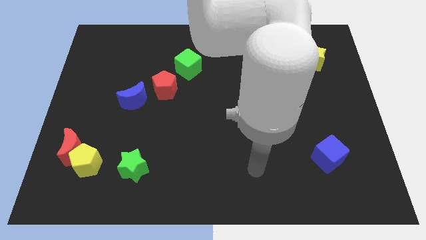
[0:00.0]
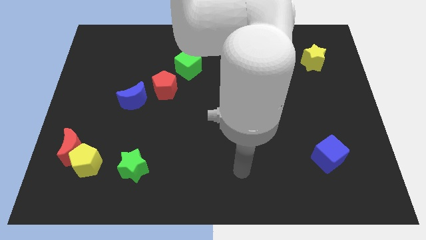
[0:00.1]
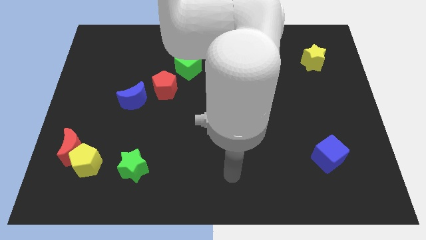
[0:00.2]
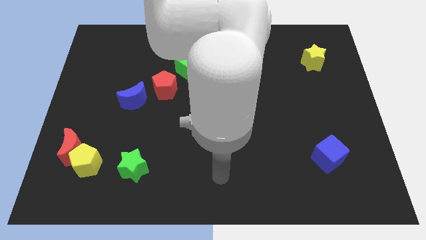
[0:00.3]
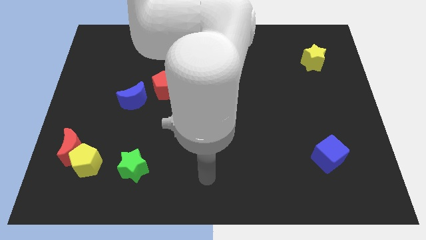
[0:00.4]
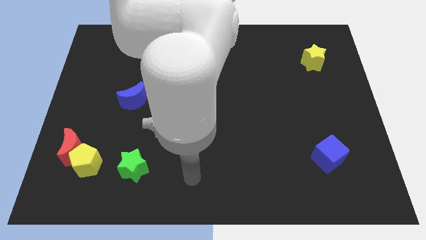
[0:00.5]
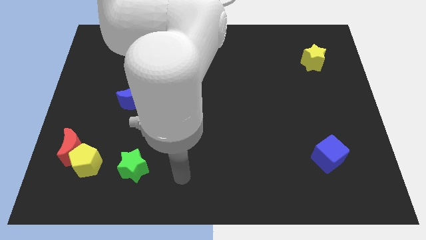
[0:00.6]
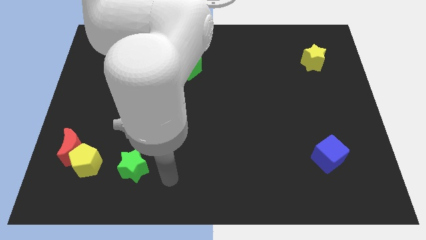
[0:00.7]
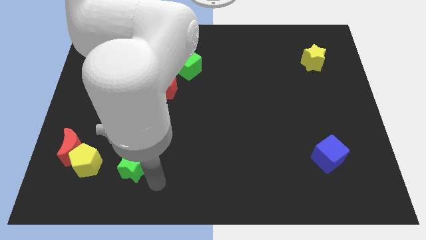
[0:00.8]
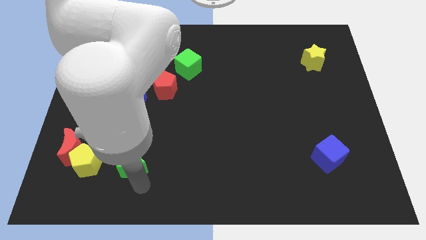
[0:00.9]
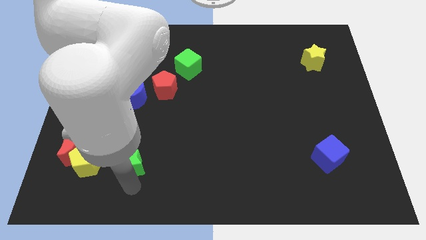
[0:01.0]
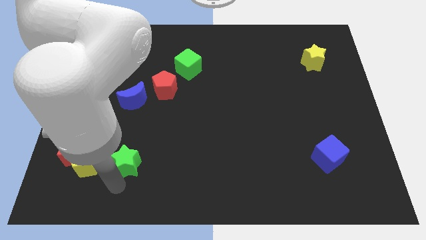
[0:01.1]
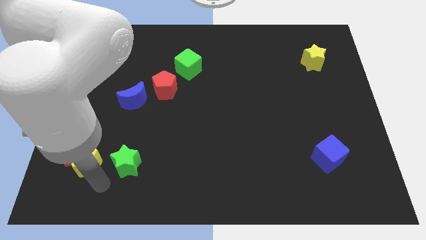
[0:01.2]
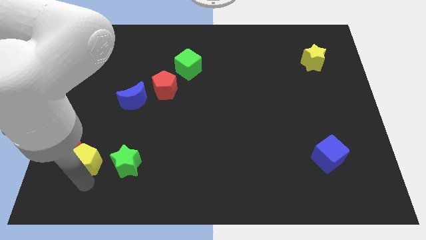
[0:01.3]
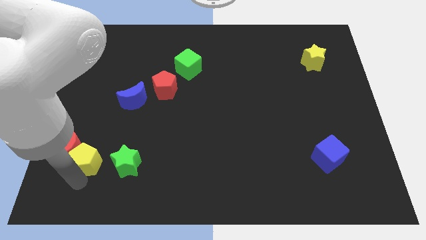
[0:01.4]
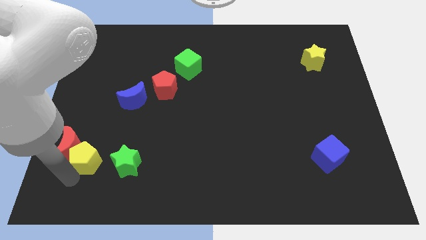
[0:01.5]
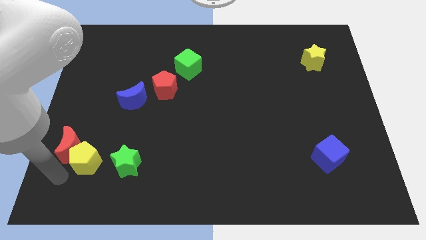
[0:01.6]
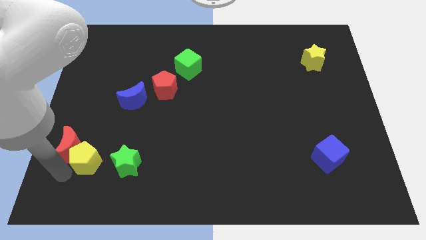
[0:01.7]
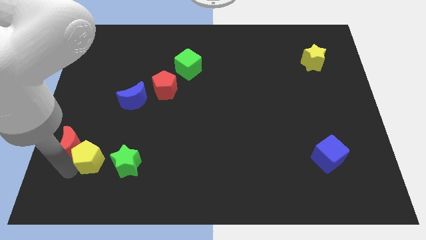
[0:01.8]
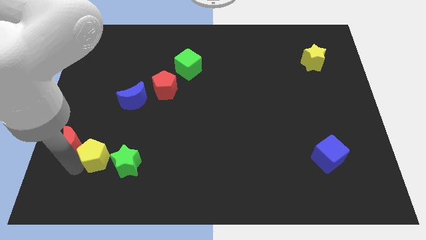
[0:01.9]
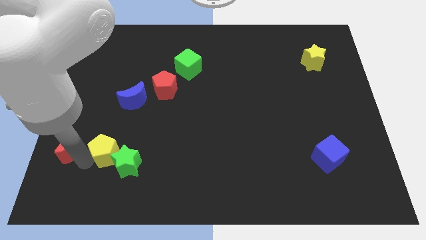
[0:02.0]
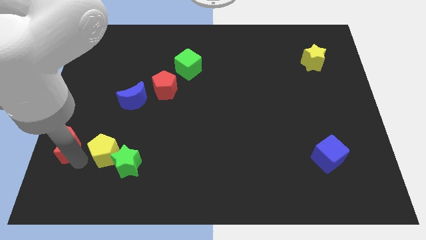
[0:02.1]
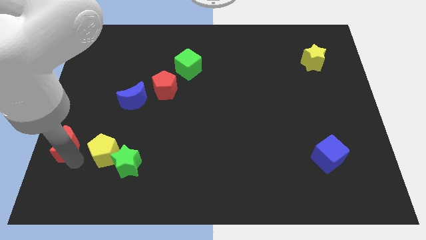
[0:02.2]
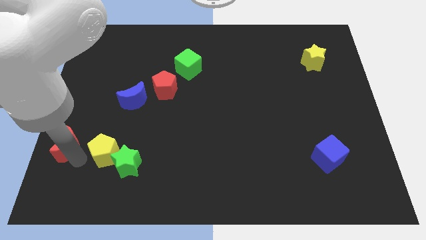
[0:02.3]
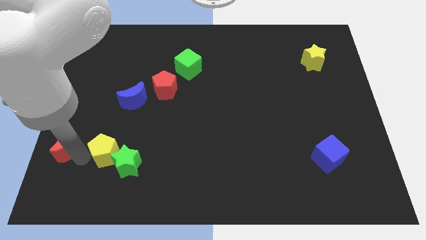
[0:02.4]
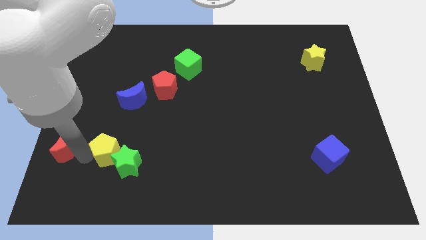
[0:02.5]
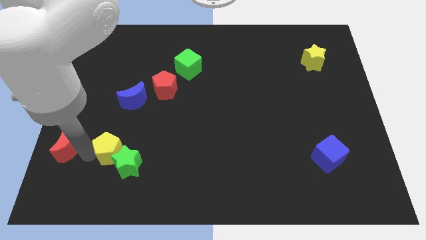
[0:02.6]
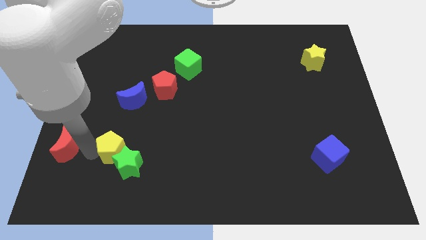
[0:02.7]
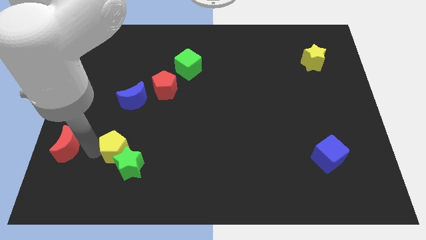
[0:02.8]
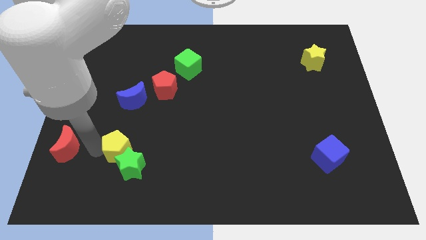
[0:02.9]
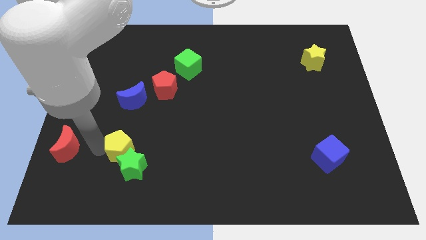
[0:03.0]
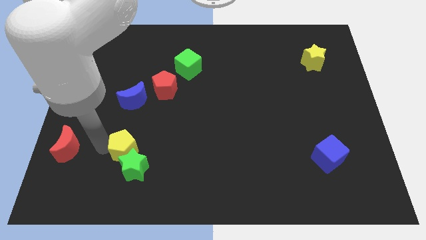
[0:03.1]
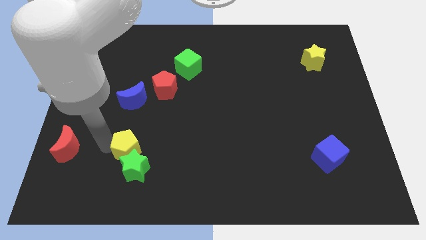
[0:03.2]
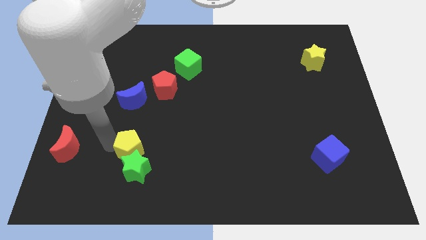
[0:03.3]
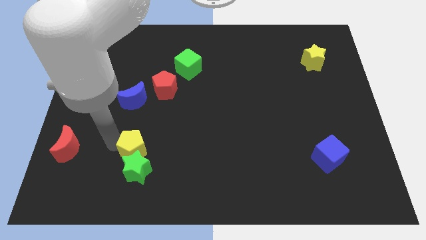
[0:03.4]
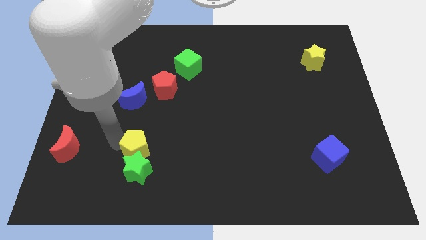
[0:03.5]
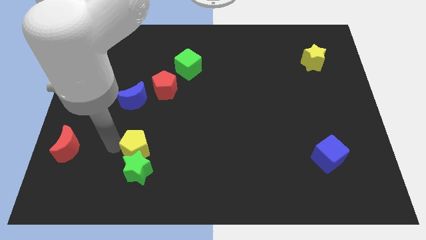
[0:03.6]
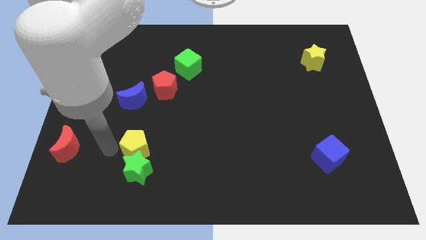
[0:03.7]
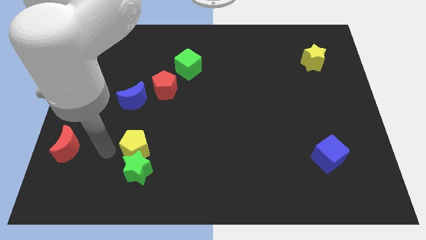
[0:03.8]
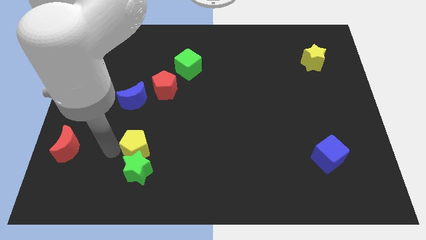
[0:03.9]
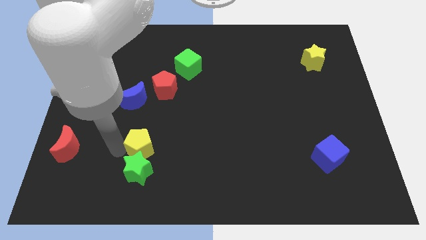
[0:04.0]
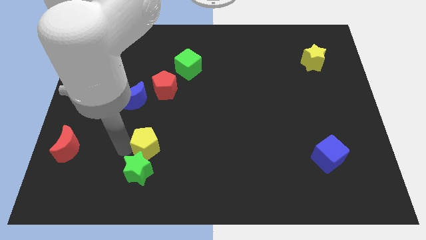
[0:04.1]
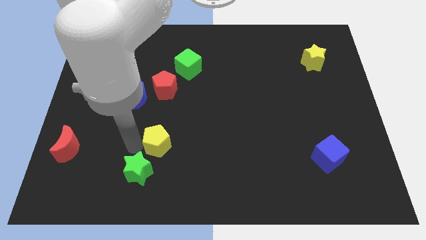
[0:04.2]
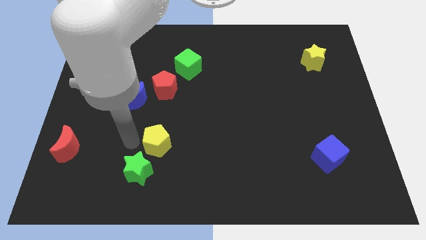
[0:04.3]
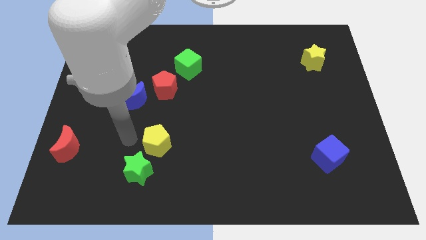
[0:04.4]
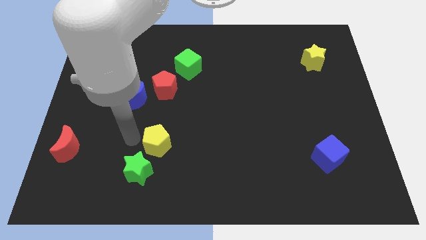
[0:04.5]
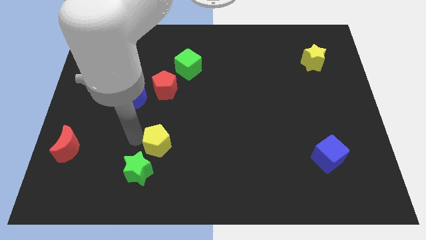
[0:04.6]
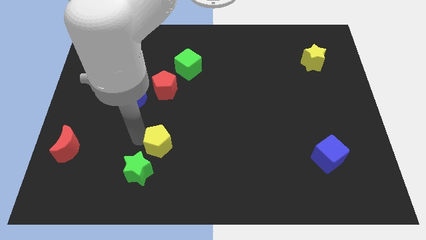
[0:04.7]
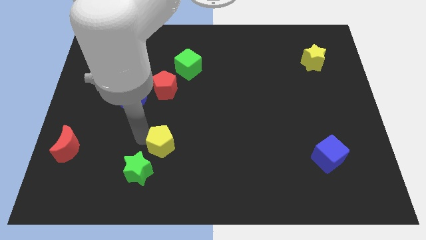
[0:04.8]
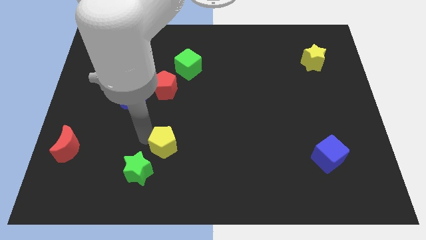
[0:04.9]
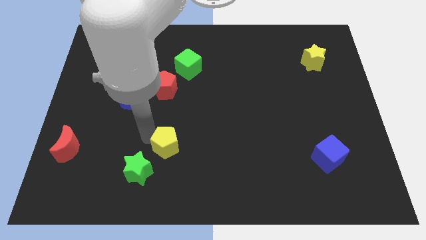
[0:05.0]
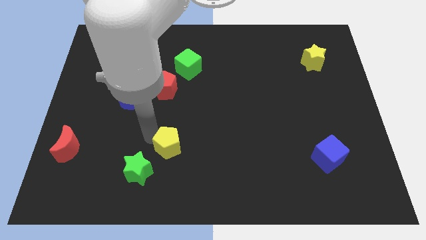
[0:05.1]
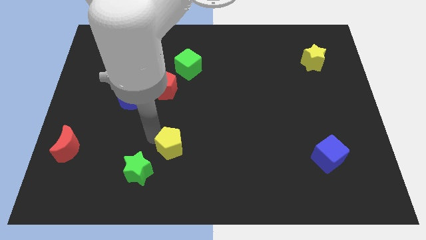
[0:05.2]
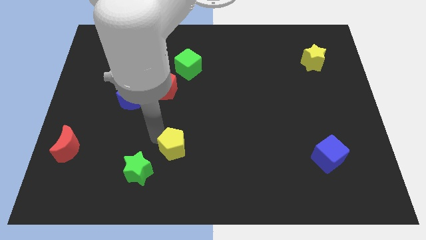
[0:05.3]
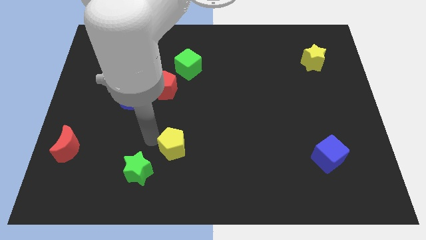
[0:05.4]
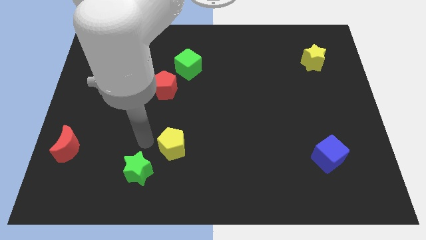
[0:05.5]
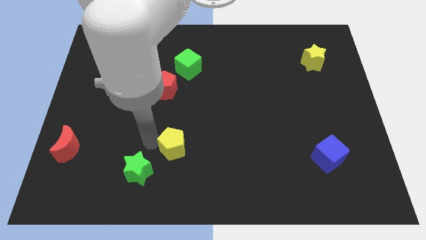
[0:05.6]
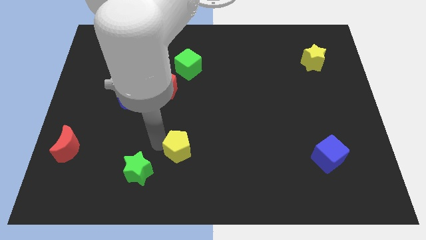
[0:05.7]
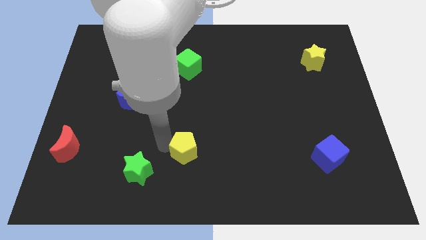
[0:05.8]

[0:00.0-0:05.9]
push the yellow pentagon to the right

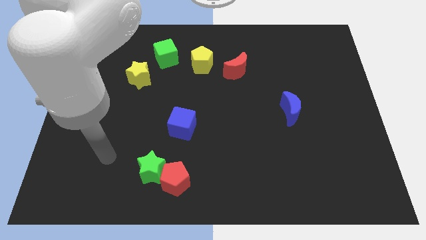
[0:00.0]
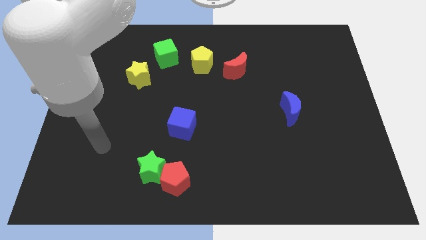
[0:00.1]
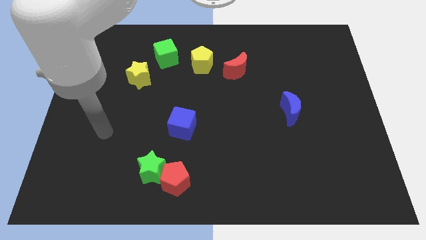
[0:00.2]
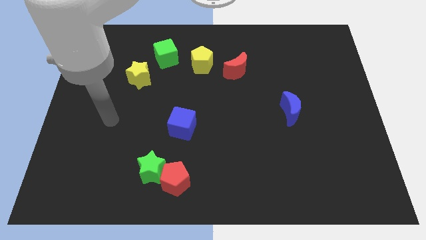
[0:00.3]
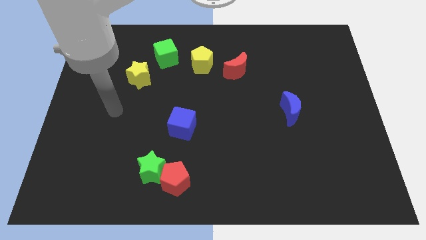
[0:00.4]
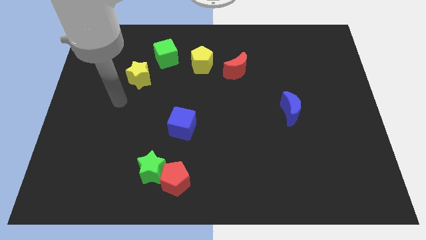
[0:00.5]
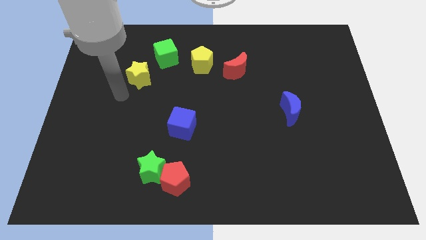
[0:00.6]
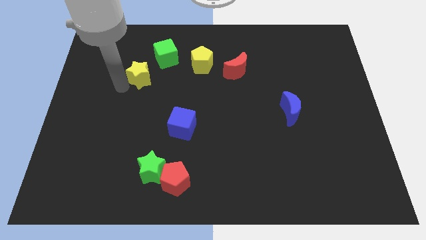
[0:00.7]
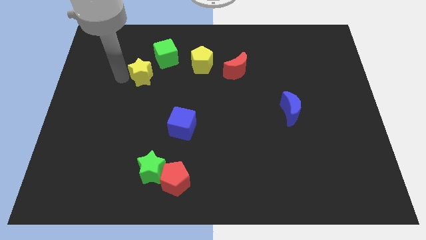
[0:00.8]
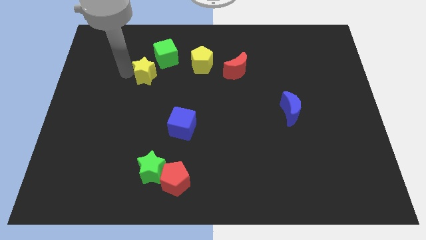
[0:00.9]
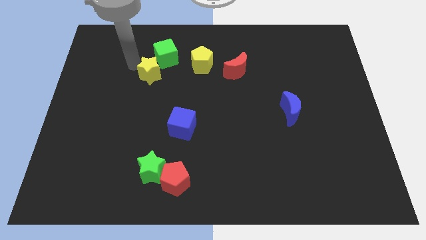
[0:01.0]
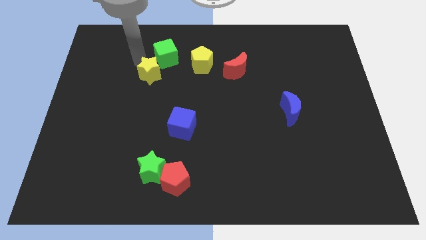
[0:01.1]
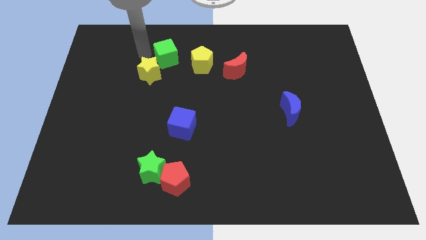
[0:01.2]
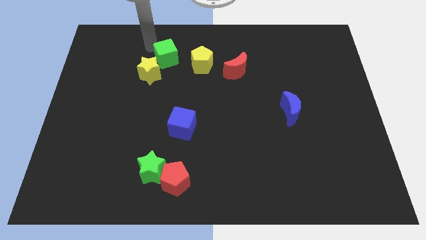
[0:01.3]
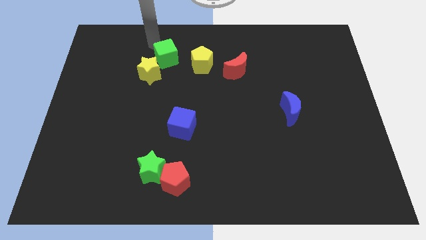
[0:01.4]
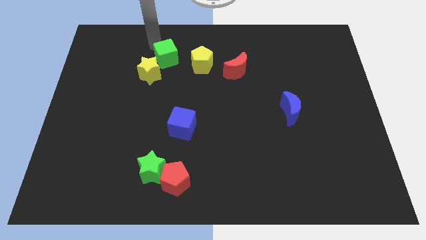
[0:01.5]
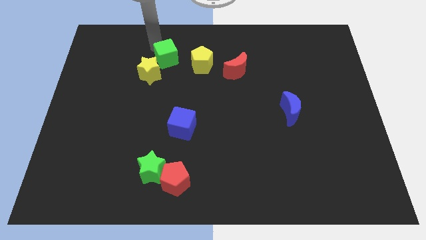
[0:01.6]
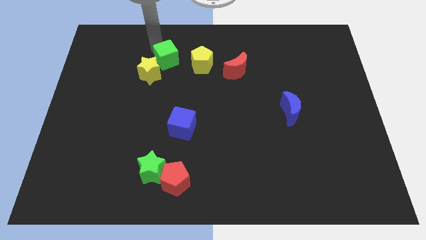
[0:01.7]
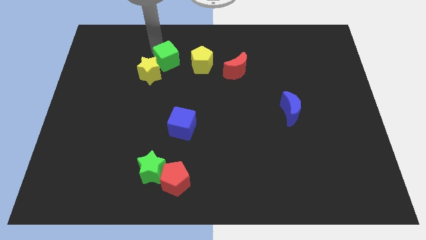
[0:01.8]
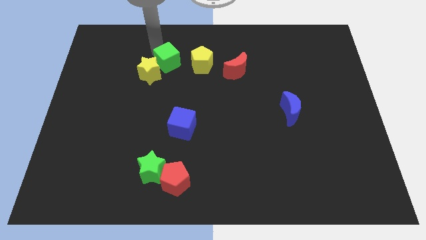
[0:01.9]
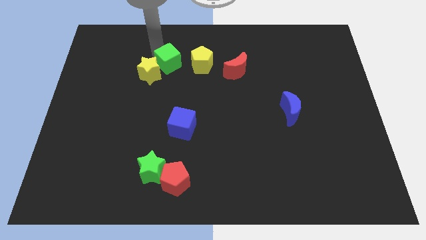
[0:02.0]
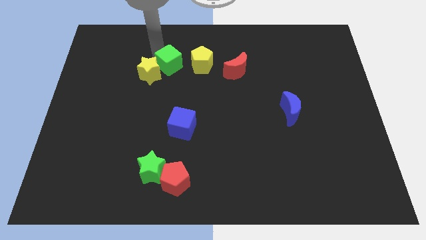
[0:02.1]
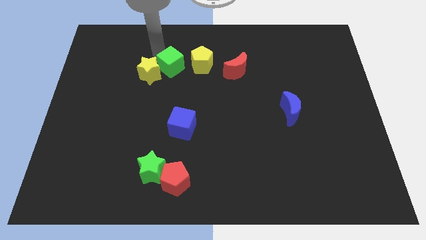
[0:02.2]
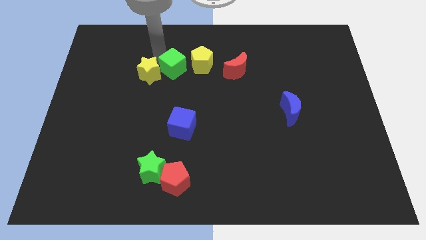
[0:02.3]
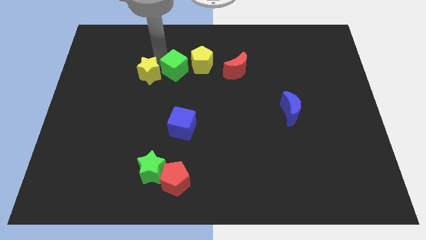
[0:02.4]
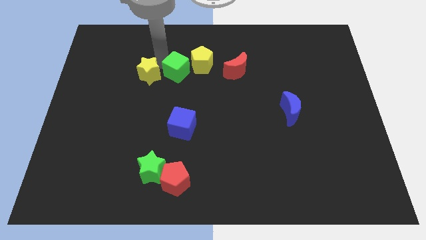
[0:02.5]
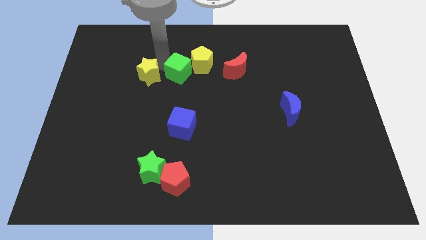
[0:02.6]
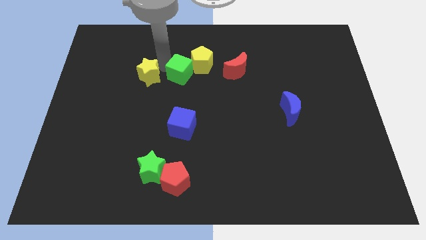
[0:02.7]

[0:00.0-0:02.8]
move the green cube downwards and to the right a bit
